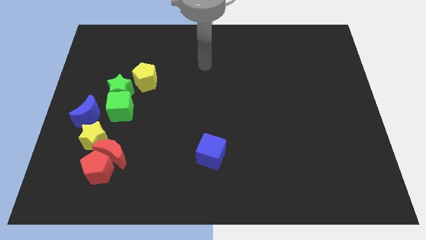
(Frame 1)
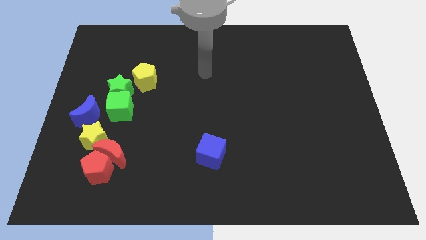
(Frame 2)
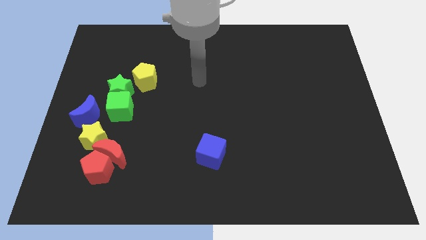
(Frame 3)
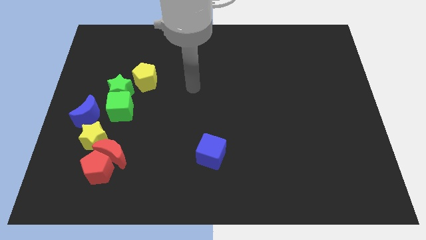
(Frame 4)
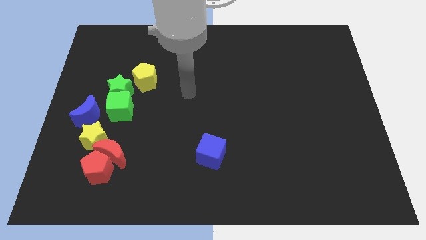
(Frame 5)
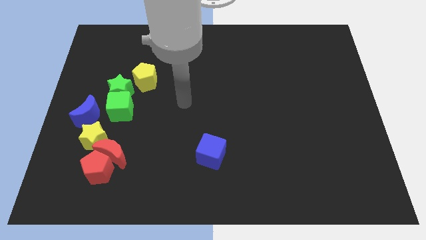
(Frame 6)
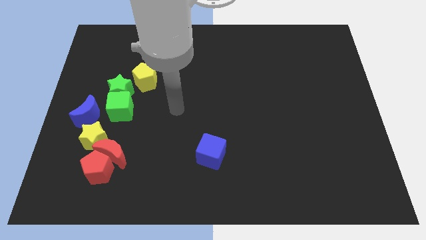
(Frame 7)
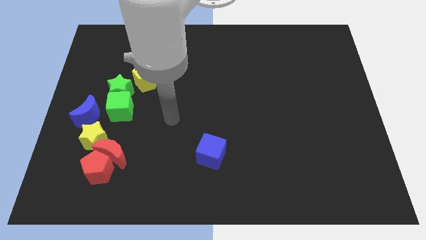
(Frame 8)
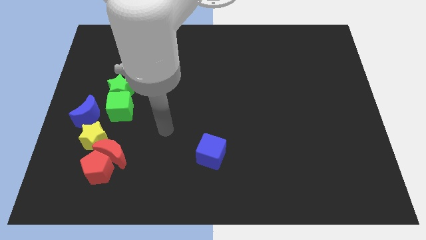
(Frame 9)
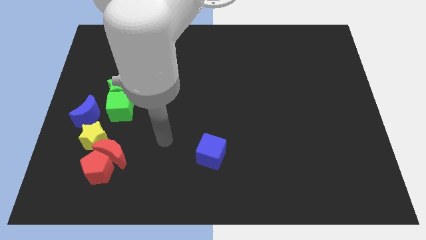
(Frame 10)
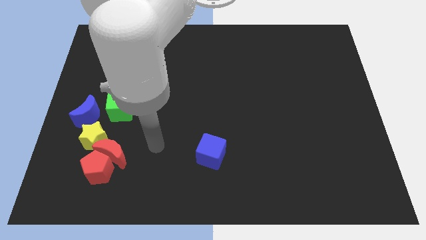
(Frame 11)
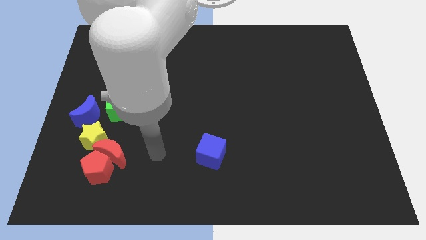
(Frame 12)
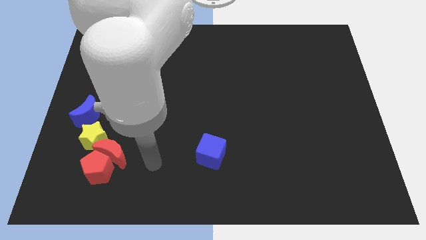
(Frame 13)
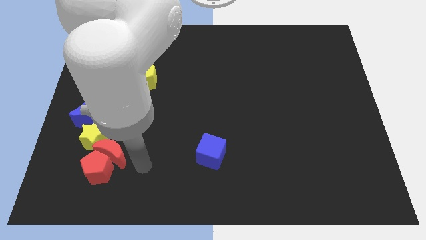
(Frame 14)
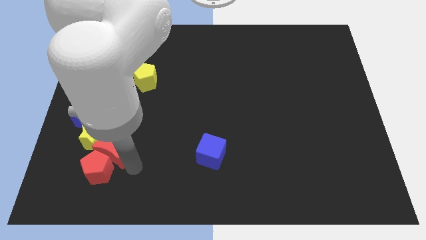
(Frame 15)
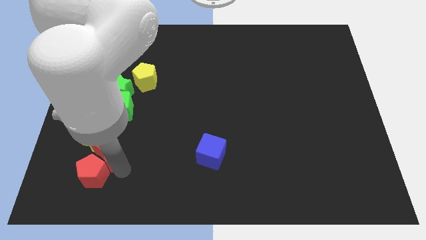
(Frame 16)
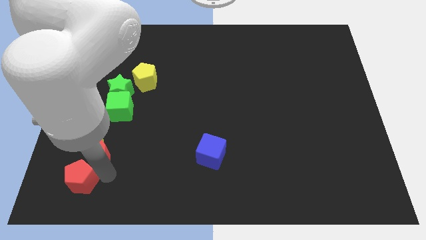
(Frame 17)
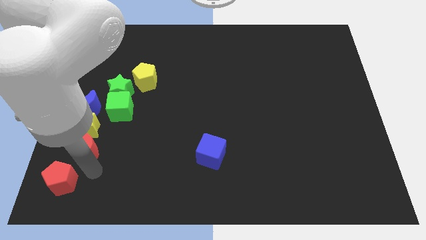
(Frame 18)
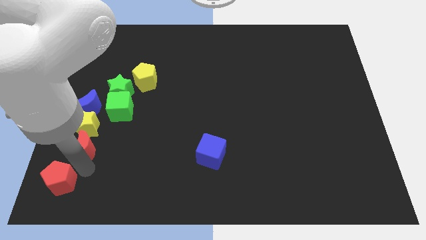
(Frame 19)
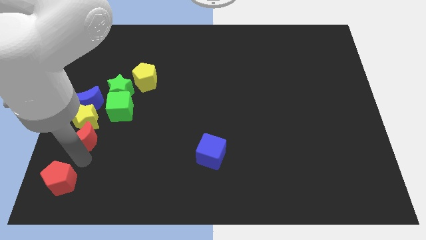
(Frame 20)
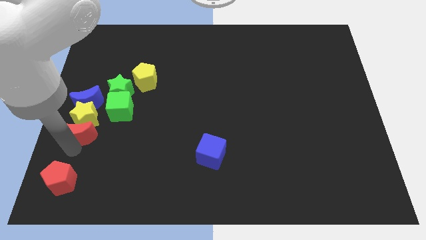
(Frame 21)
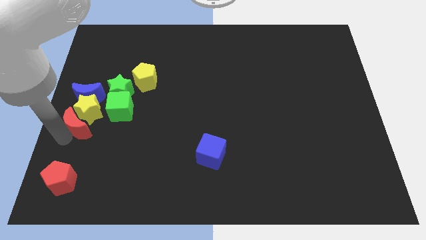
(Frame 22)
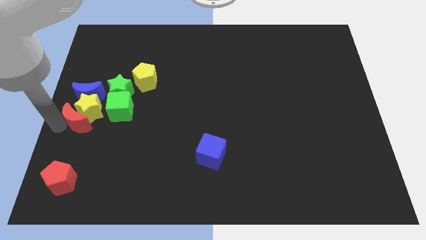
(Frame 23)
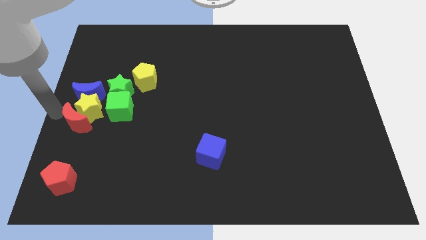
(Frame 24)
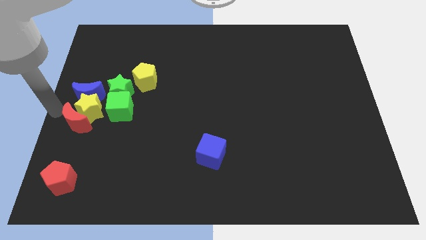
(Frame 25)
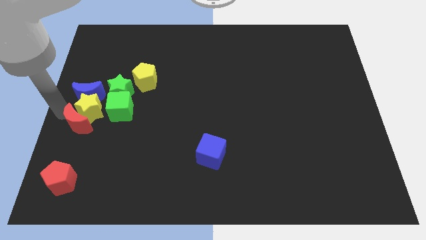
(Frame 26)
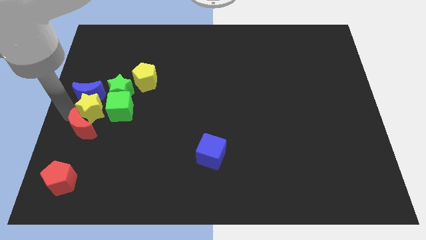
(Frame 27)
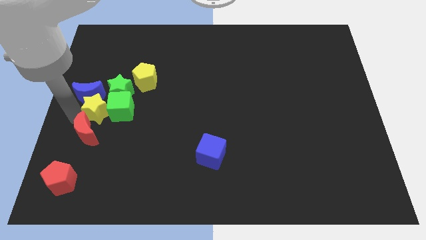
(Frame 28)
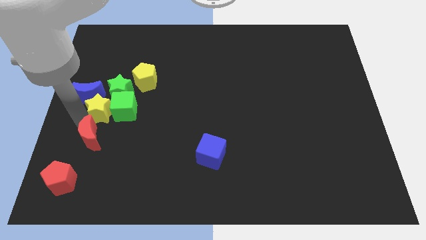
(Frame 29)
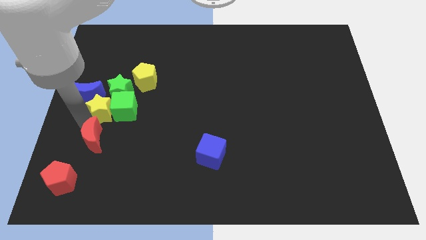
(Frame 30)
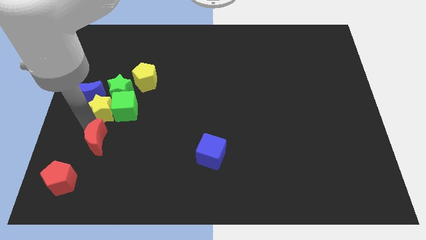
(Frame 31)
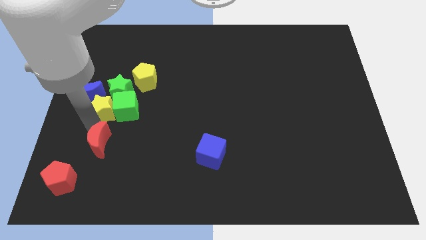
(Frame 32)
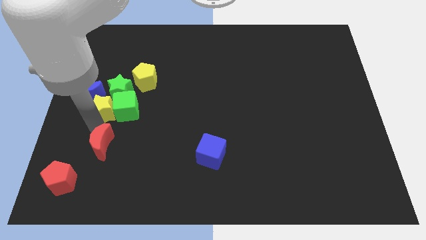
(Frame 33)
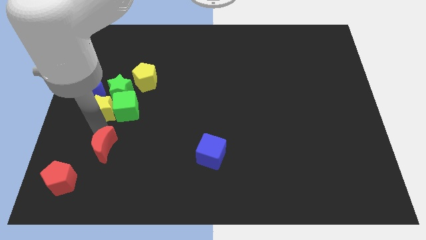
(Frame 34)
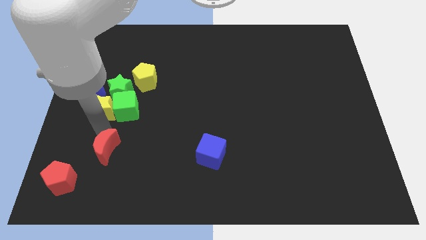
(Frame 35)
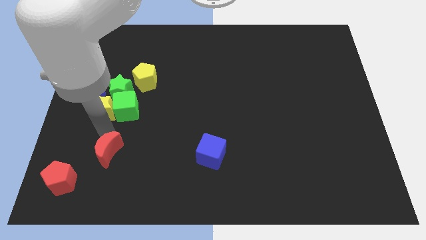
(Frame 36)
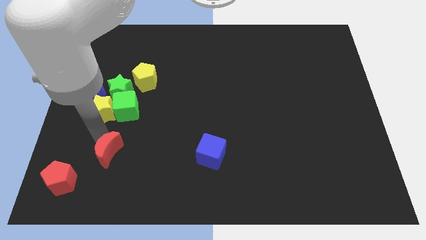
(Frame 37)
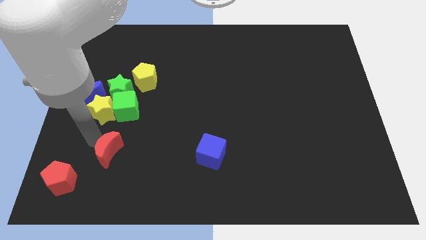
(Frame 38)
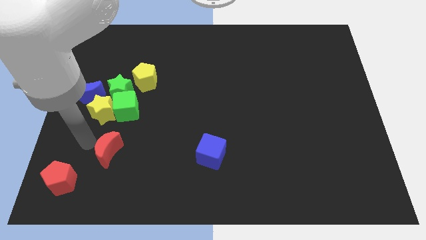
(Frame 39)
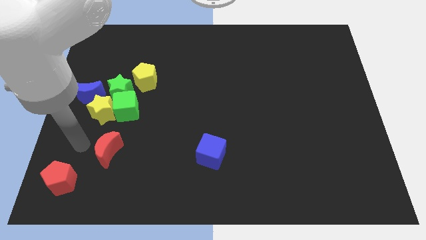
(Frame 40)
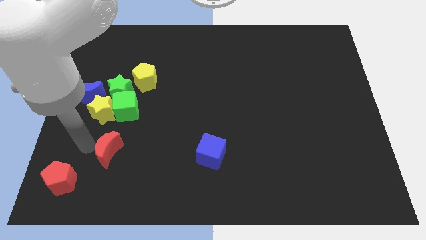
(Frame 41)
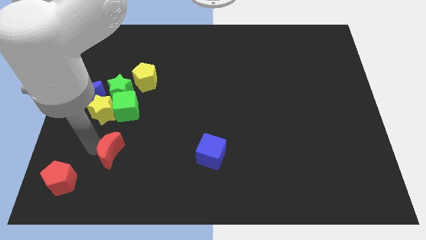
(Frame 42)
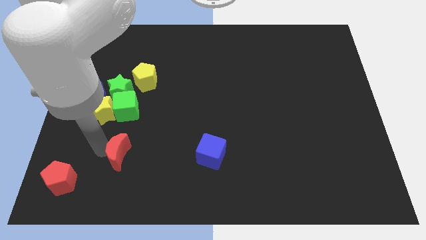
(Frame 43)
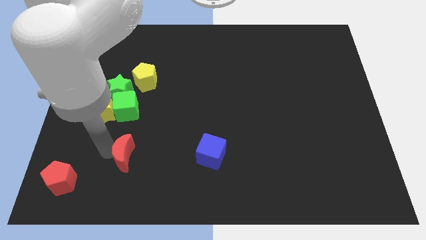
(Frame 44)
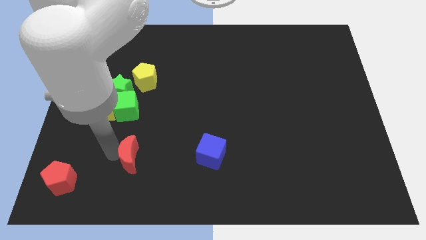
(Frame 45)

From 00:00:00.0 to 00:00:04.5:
pull the red moon apart from the red pentagon and yellow star

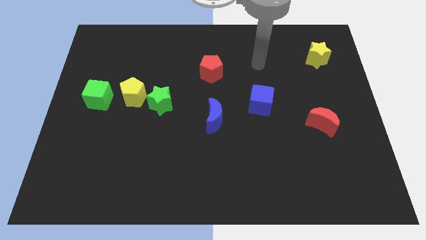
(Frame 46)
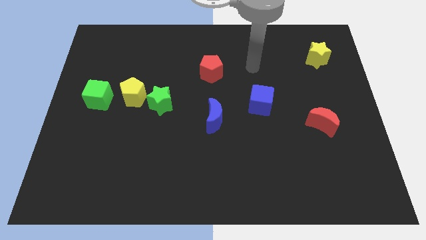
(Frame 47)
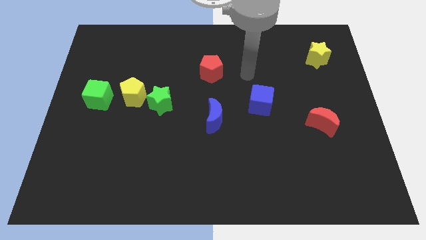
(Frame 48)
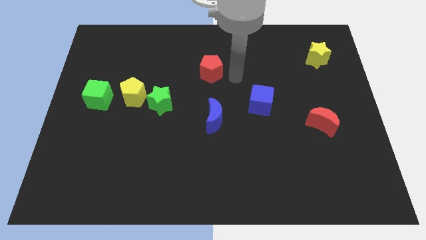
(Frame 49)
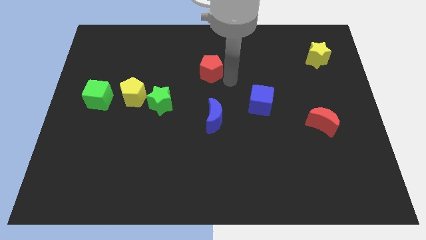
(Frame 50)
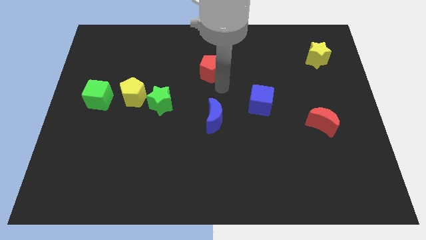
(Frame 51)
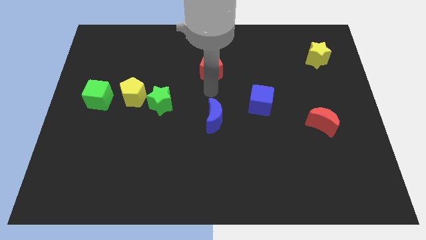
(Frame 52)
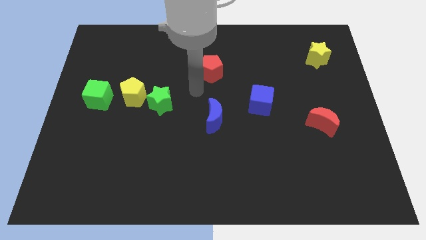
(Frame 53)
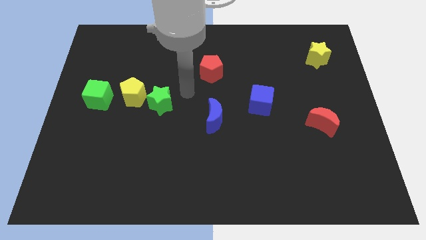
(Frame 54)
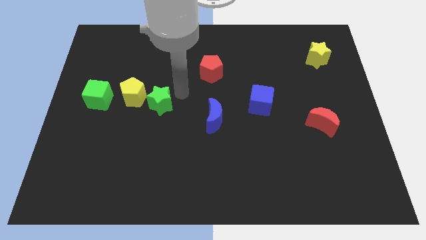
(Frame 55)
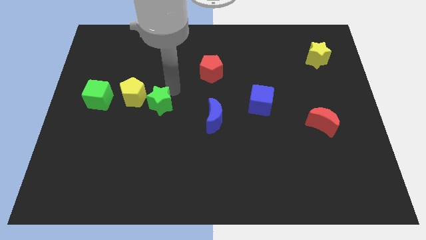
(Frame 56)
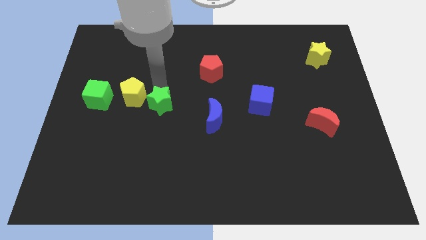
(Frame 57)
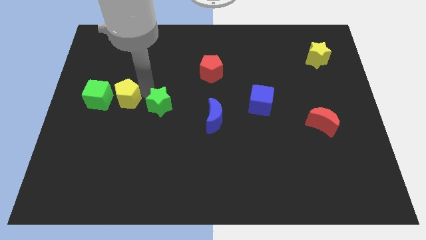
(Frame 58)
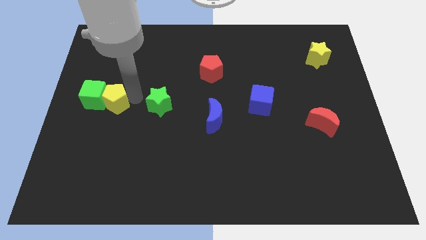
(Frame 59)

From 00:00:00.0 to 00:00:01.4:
pull the green star apart from the yellow pentagon

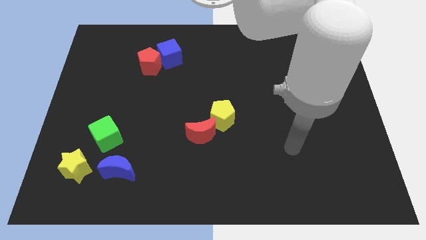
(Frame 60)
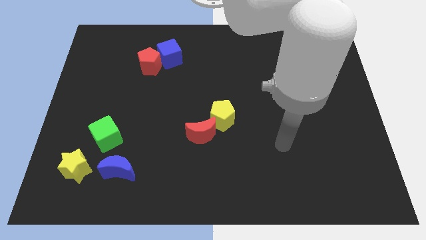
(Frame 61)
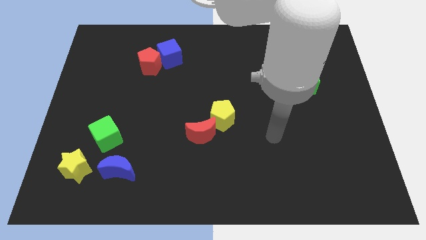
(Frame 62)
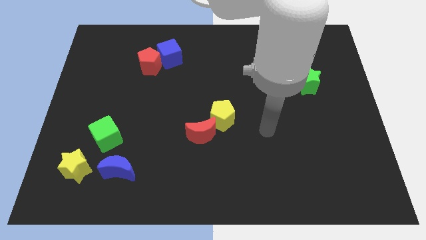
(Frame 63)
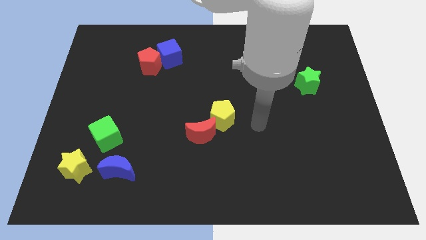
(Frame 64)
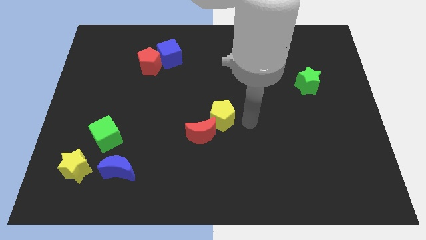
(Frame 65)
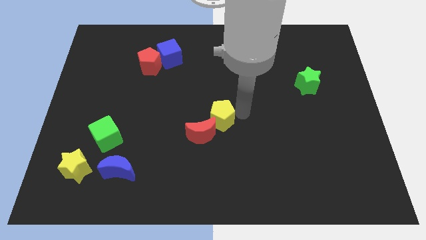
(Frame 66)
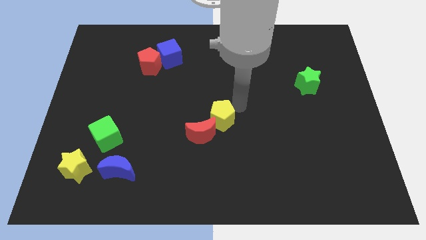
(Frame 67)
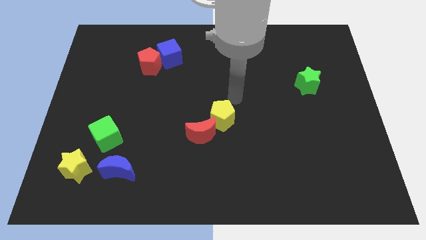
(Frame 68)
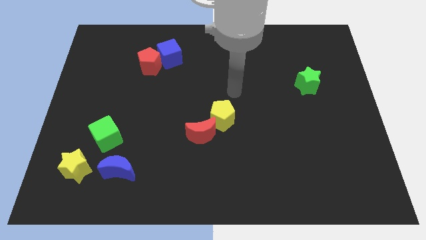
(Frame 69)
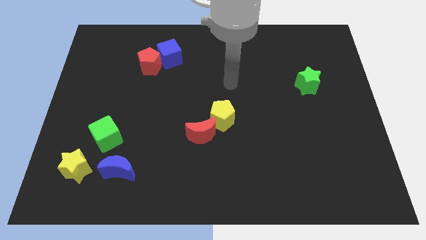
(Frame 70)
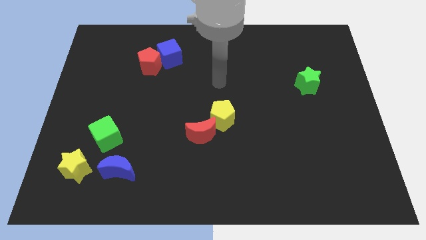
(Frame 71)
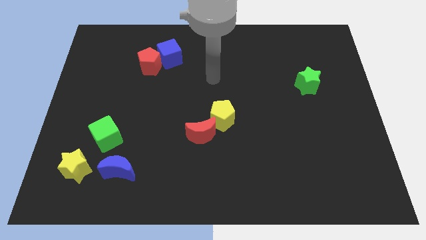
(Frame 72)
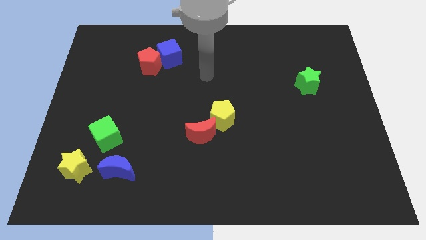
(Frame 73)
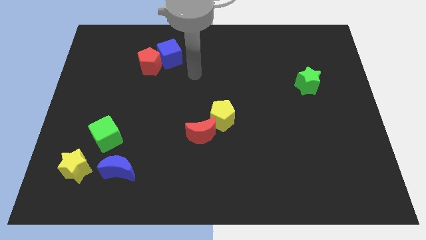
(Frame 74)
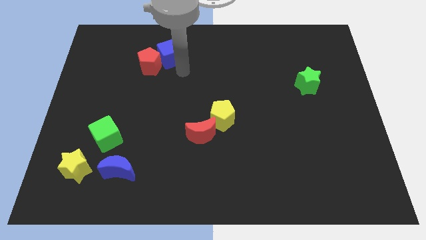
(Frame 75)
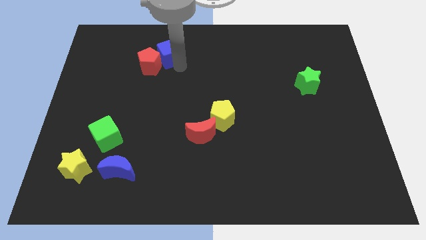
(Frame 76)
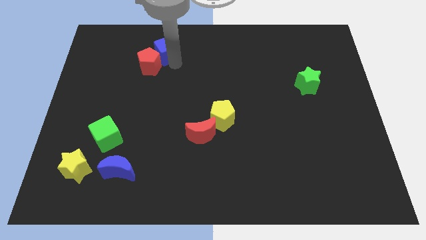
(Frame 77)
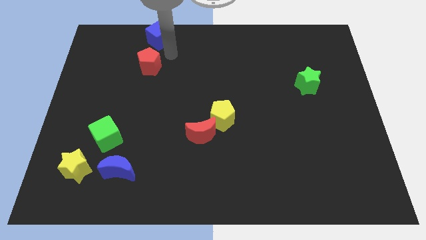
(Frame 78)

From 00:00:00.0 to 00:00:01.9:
separate the red pentagon from the blue cube

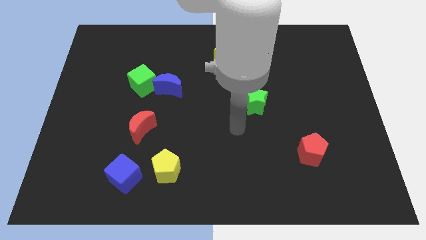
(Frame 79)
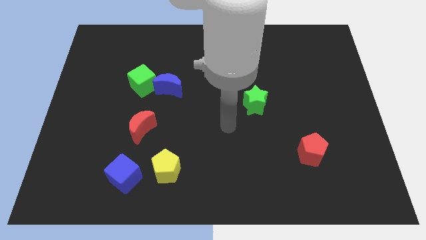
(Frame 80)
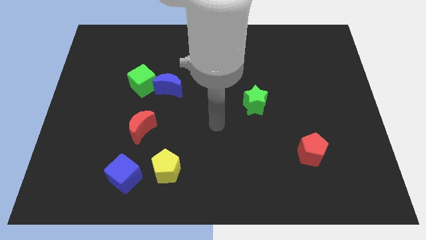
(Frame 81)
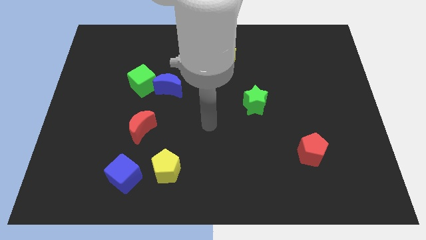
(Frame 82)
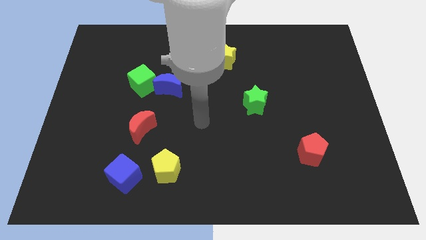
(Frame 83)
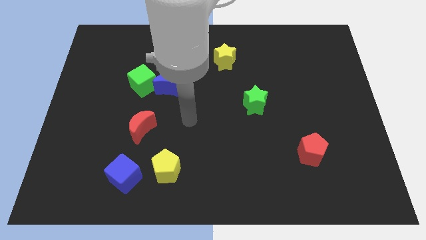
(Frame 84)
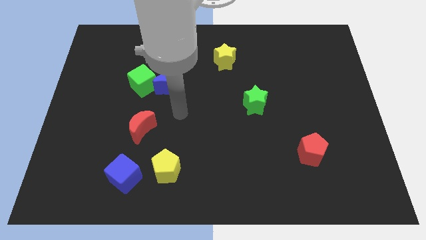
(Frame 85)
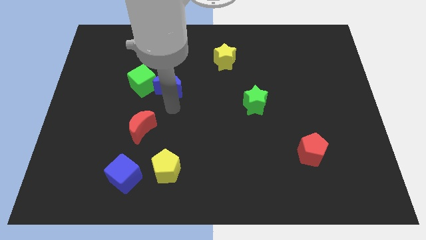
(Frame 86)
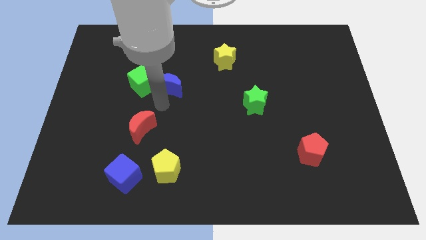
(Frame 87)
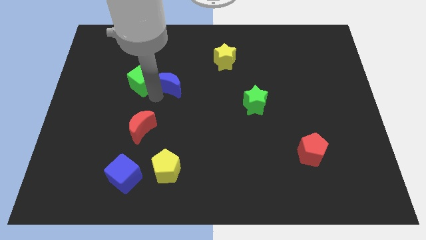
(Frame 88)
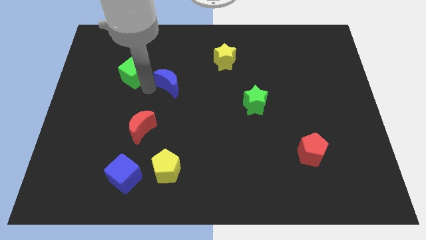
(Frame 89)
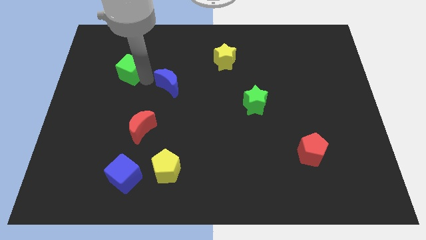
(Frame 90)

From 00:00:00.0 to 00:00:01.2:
separate the blue moon from the green cube

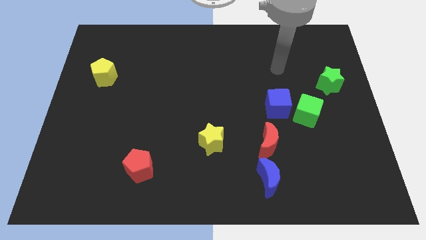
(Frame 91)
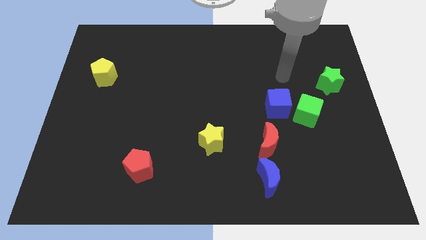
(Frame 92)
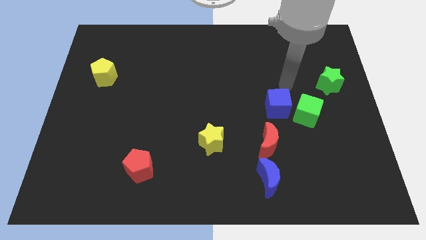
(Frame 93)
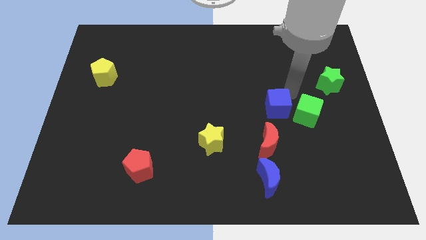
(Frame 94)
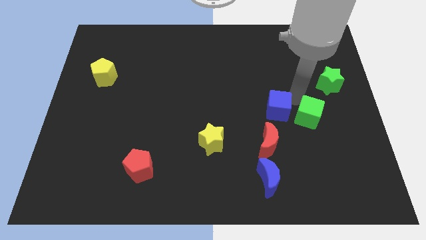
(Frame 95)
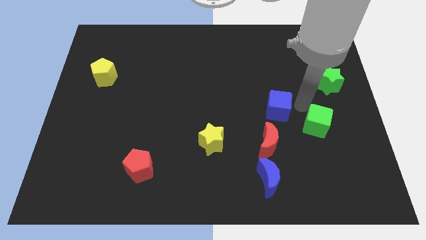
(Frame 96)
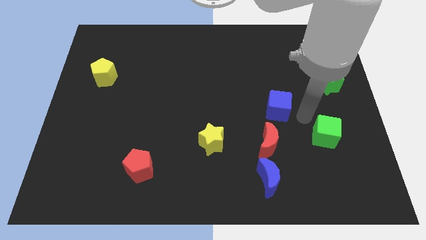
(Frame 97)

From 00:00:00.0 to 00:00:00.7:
pull the blue cube apart from the green cube
